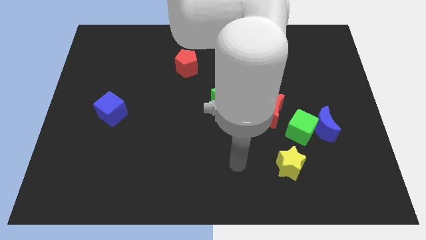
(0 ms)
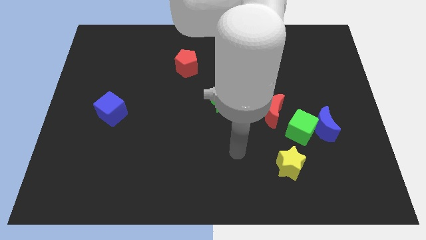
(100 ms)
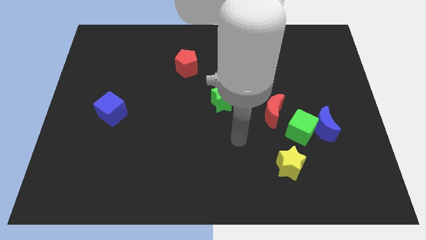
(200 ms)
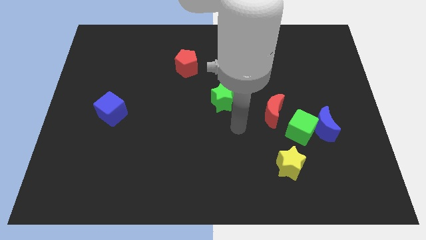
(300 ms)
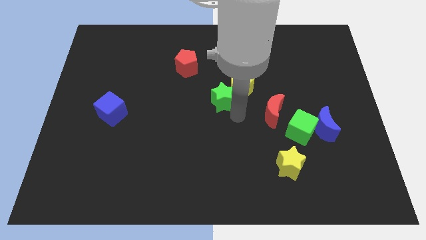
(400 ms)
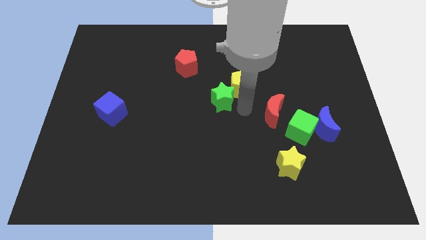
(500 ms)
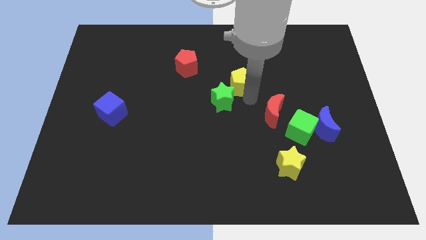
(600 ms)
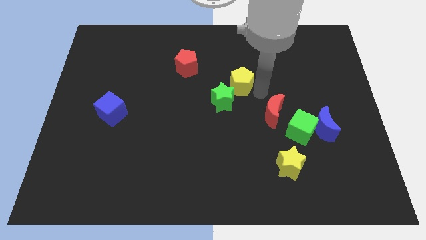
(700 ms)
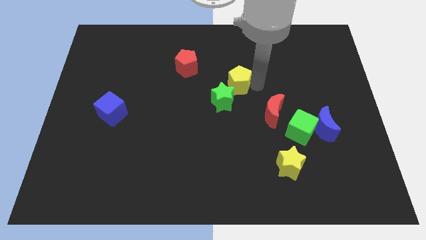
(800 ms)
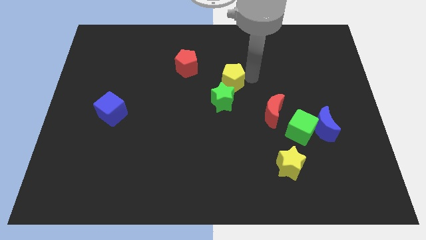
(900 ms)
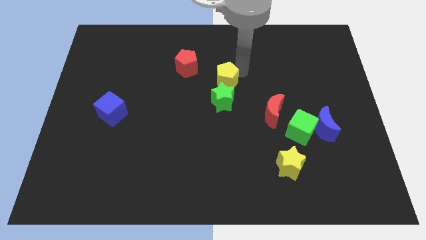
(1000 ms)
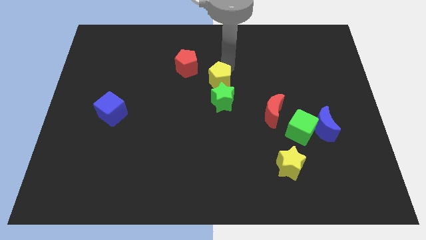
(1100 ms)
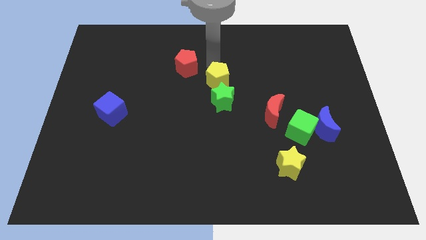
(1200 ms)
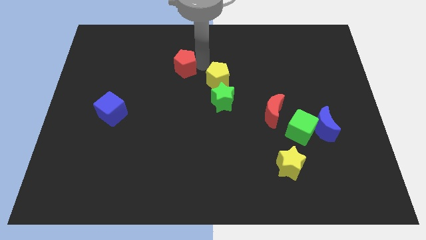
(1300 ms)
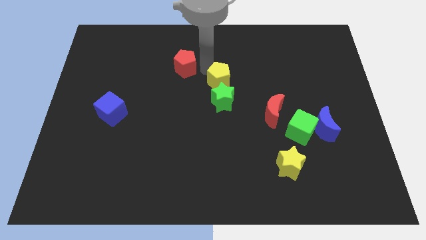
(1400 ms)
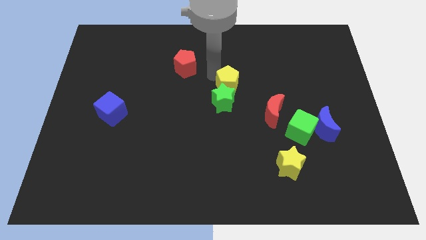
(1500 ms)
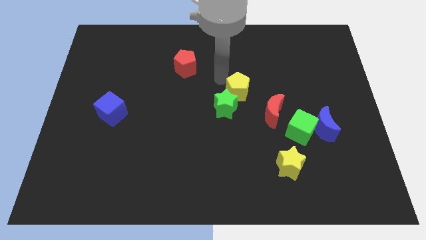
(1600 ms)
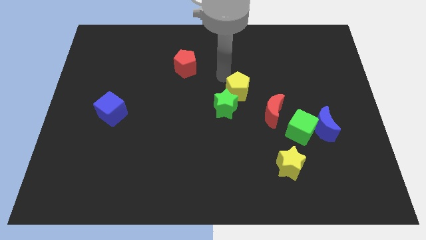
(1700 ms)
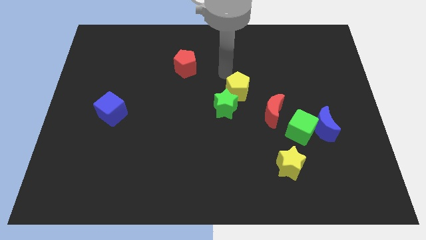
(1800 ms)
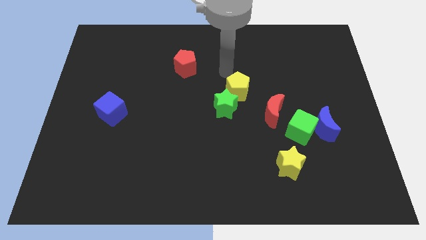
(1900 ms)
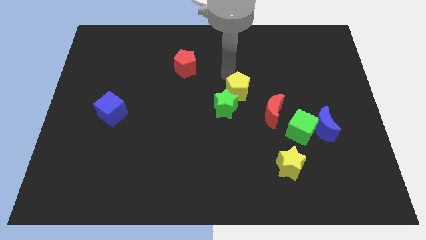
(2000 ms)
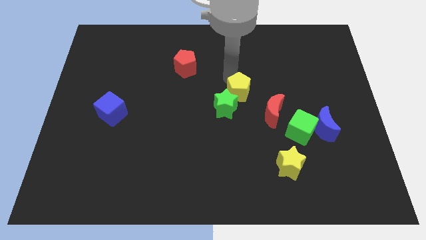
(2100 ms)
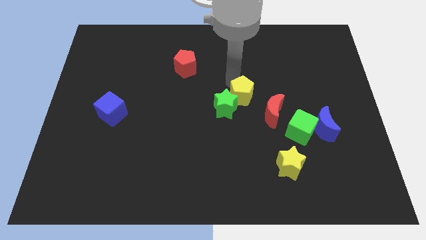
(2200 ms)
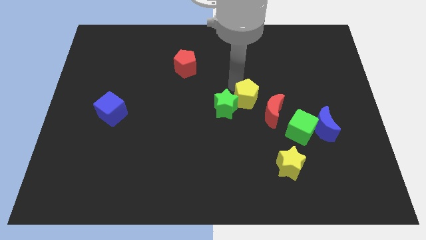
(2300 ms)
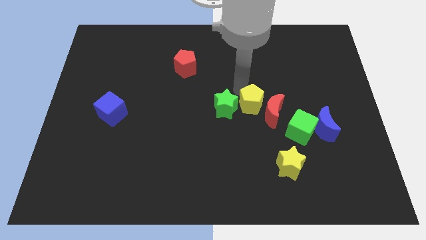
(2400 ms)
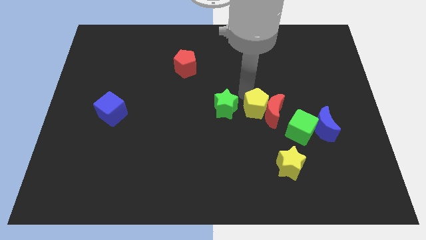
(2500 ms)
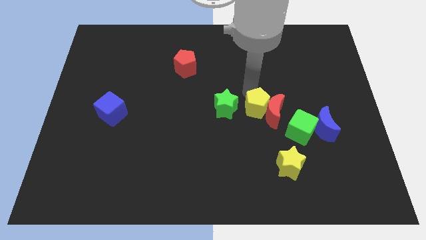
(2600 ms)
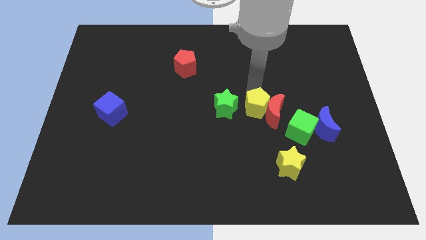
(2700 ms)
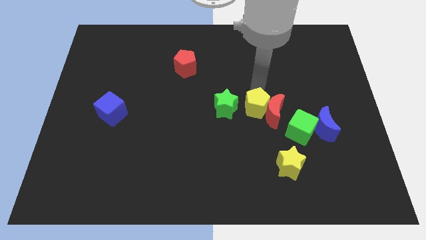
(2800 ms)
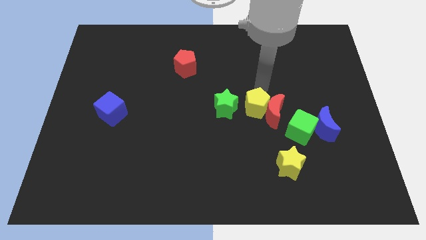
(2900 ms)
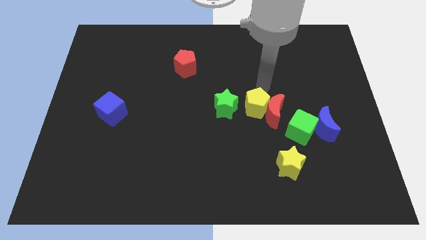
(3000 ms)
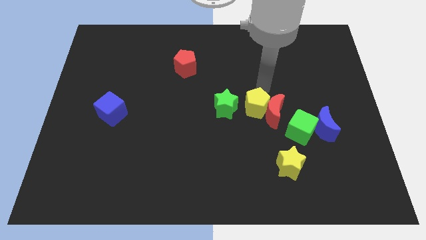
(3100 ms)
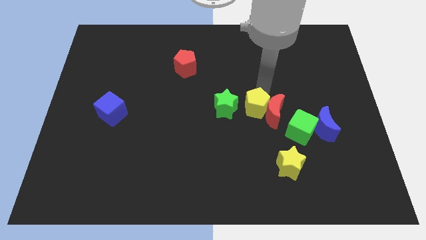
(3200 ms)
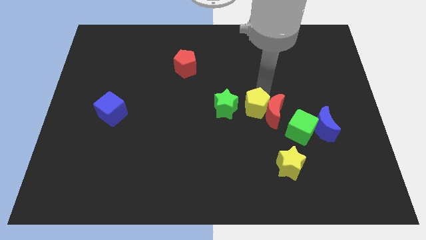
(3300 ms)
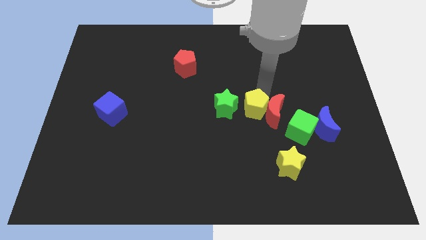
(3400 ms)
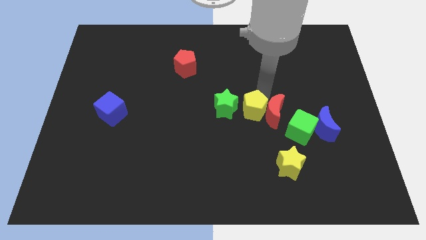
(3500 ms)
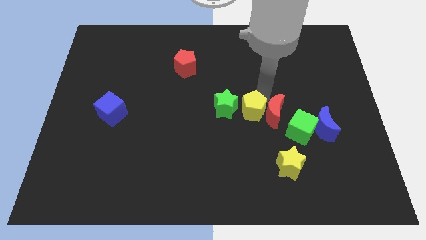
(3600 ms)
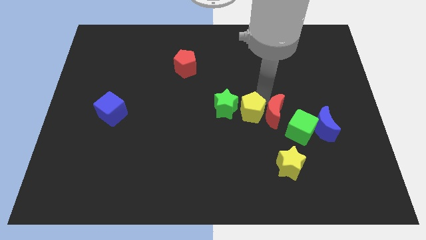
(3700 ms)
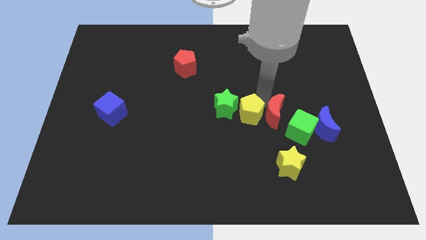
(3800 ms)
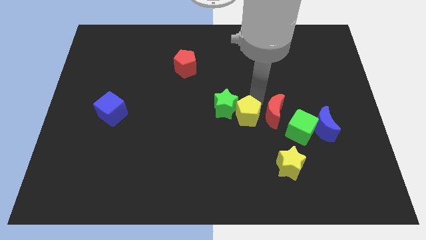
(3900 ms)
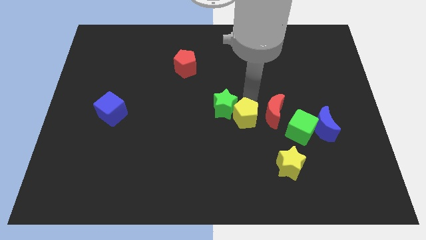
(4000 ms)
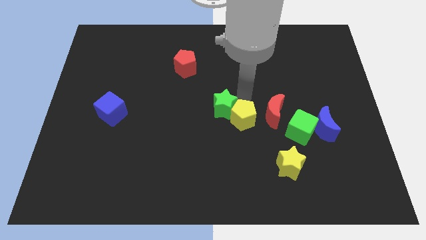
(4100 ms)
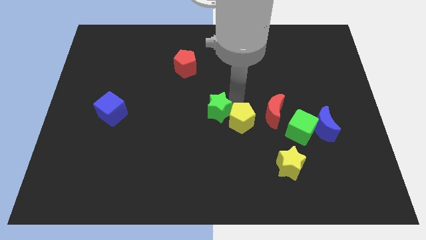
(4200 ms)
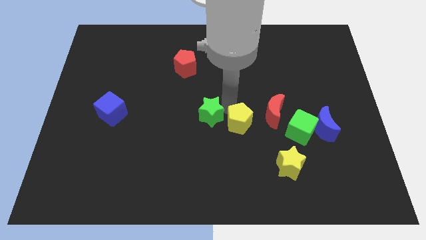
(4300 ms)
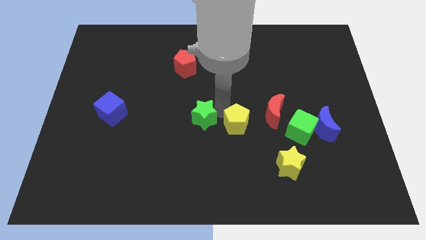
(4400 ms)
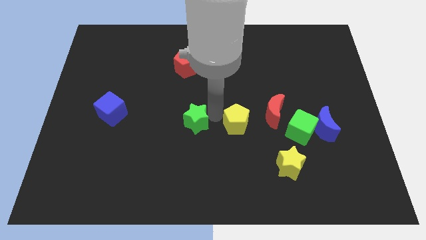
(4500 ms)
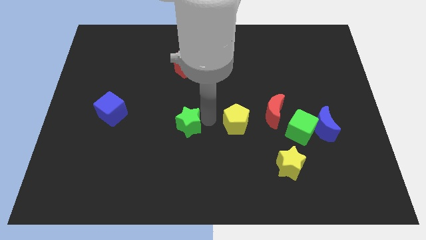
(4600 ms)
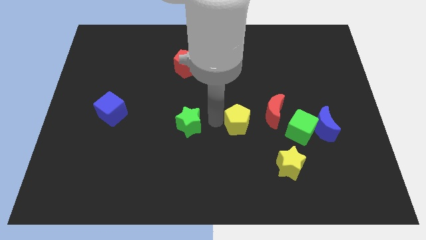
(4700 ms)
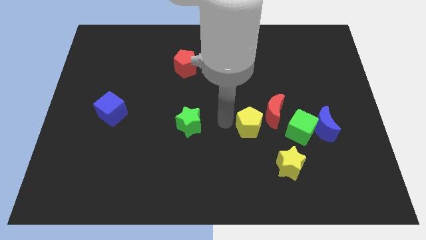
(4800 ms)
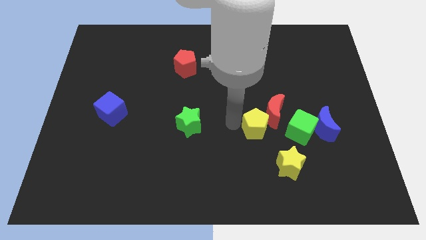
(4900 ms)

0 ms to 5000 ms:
move the yellow pentagon to the left of the blue moon

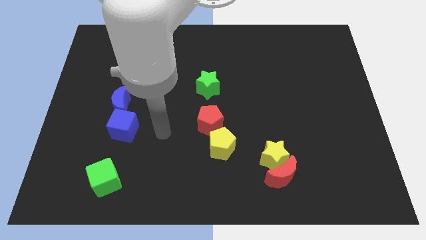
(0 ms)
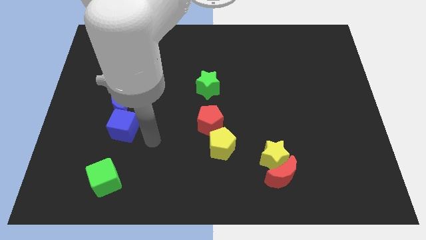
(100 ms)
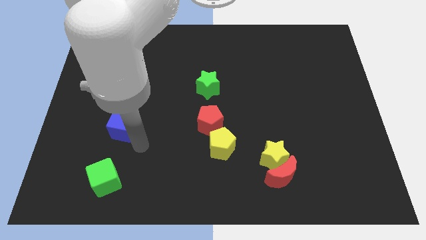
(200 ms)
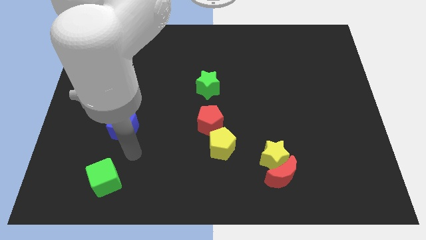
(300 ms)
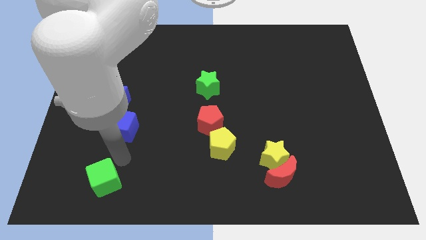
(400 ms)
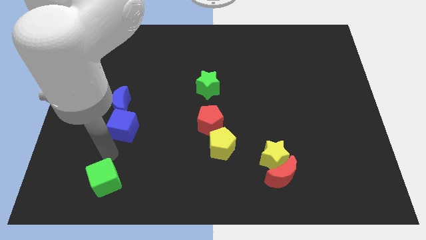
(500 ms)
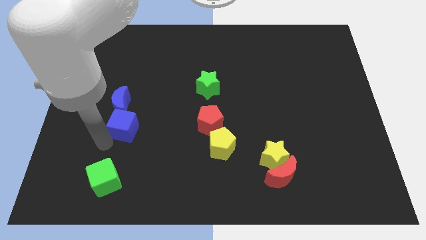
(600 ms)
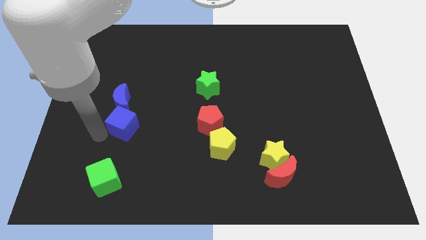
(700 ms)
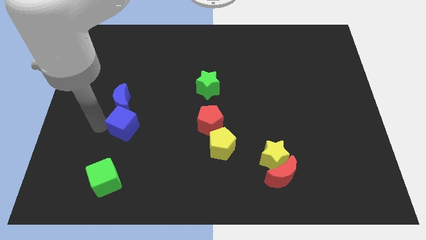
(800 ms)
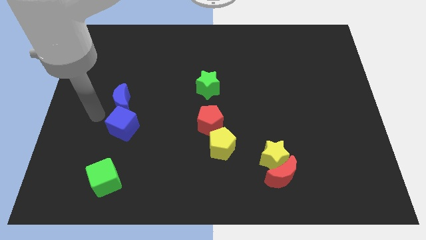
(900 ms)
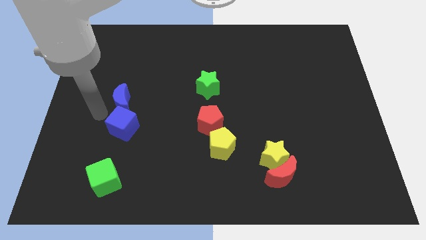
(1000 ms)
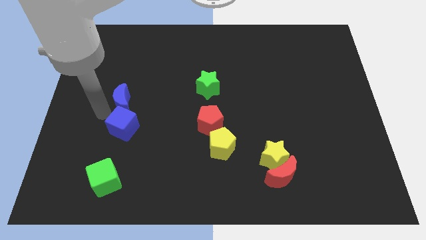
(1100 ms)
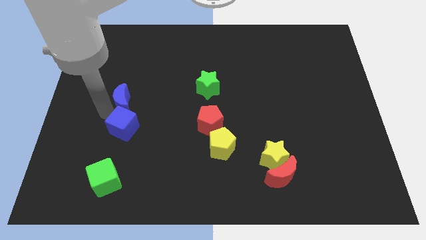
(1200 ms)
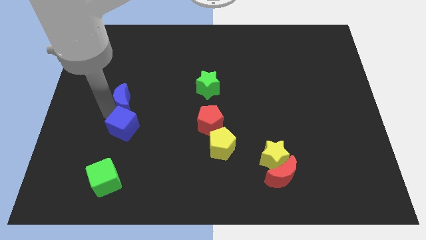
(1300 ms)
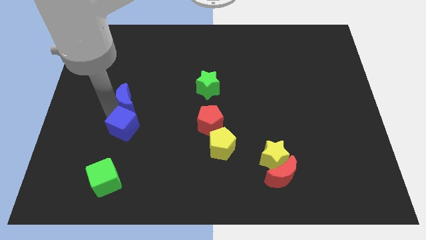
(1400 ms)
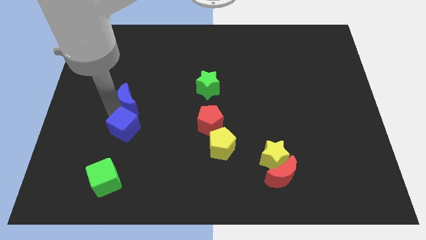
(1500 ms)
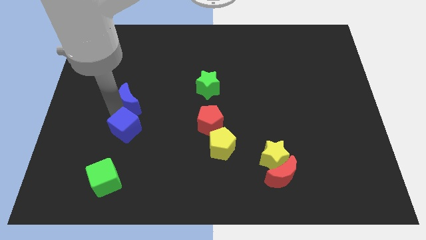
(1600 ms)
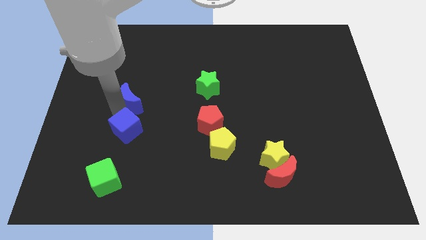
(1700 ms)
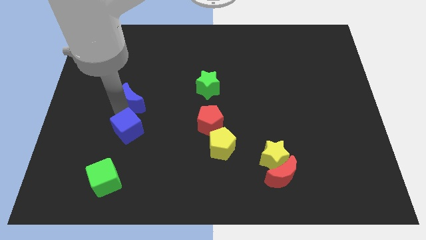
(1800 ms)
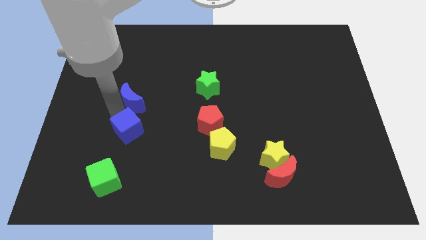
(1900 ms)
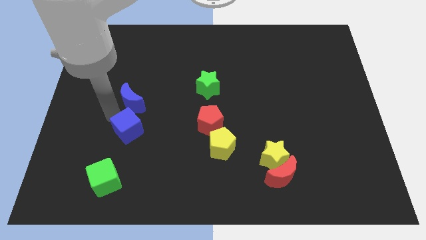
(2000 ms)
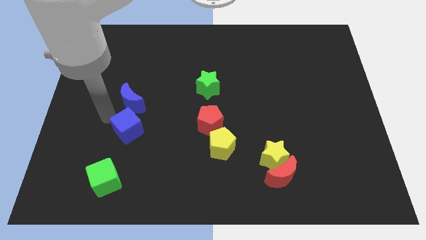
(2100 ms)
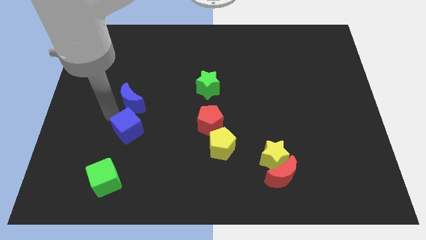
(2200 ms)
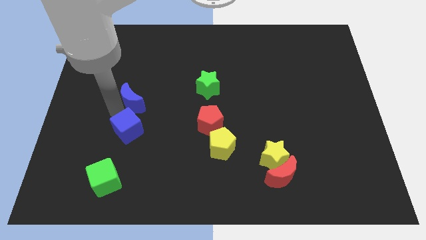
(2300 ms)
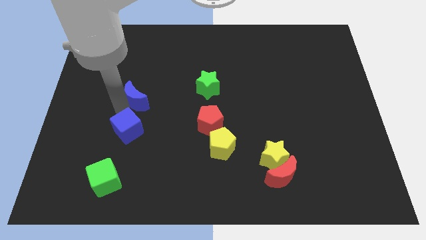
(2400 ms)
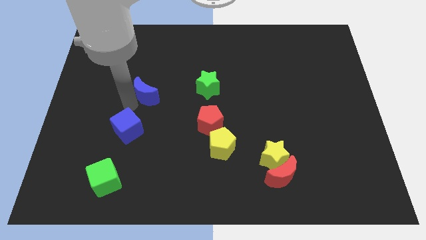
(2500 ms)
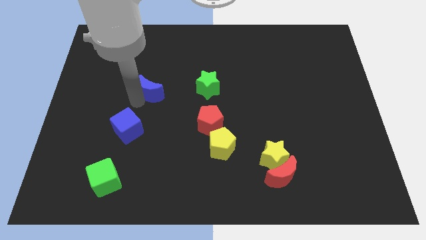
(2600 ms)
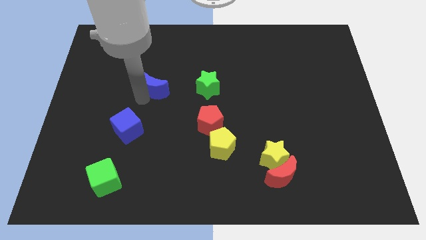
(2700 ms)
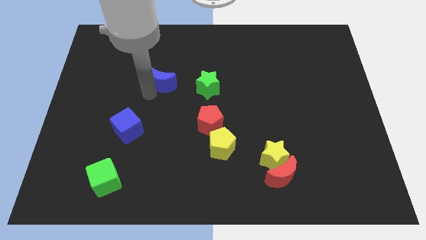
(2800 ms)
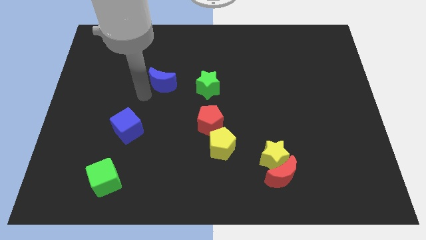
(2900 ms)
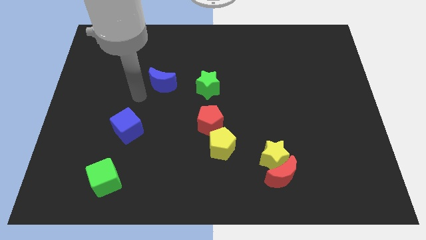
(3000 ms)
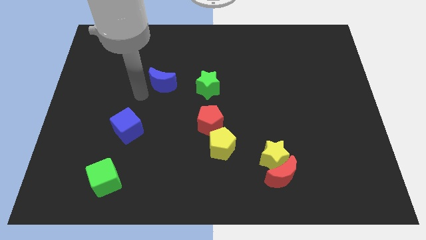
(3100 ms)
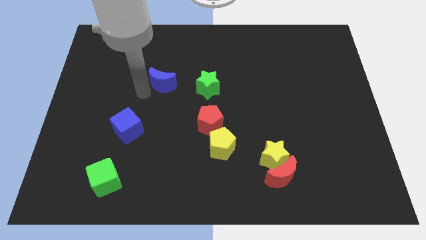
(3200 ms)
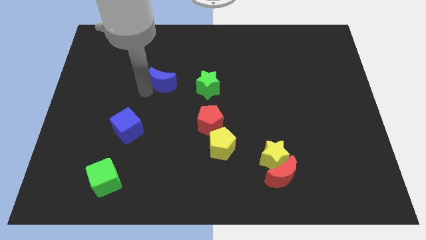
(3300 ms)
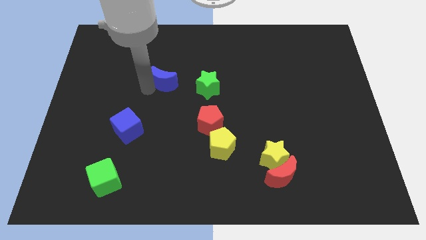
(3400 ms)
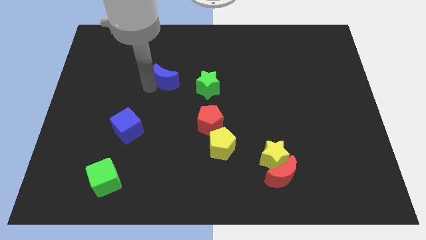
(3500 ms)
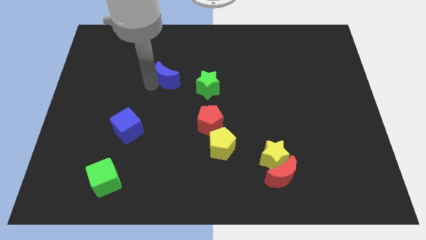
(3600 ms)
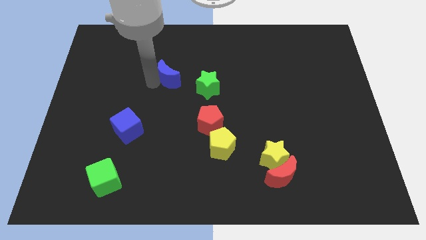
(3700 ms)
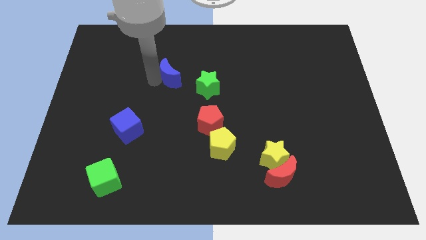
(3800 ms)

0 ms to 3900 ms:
slide the blue moon to the top left of the green star
